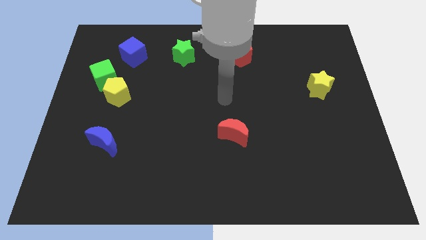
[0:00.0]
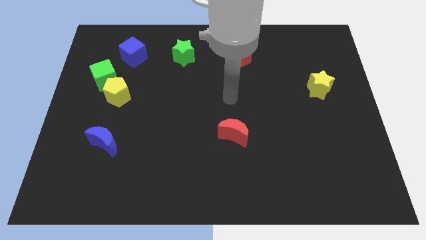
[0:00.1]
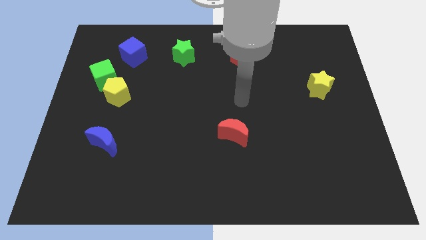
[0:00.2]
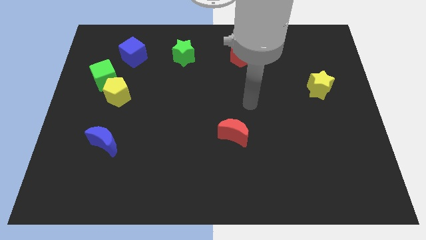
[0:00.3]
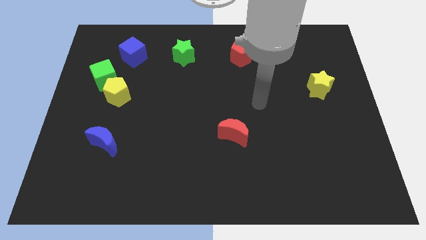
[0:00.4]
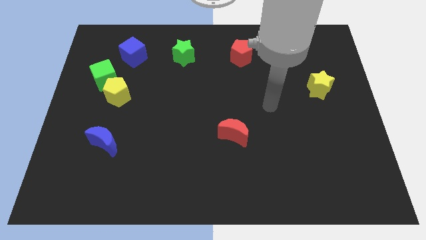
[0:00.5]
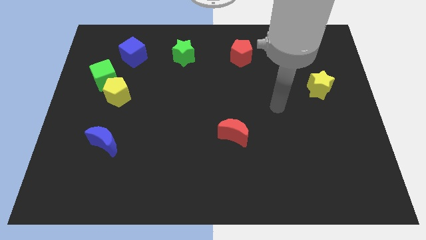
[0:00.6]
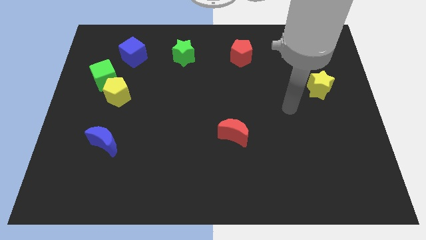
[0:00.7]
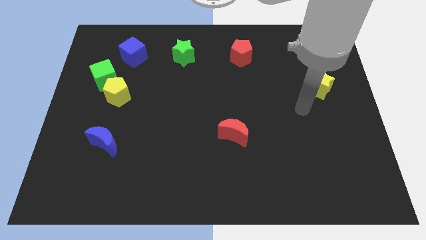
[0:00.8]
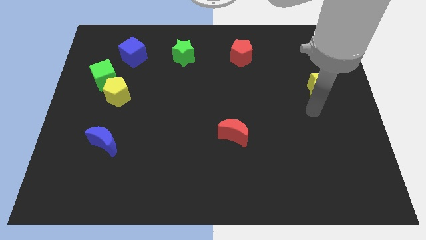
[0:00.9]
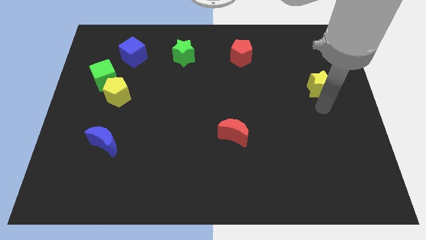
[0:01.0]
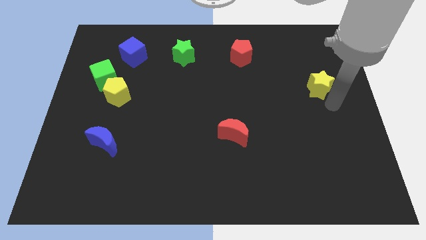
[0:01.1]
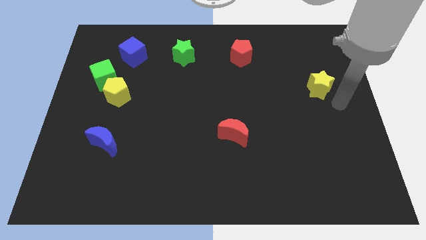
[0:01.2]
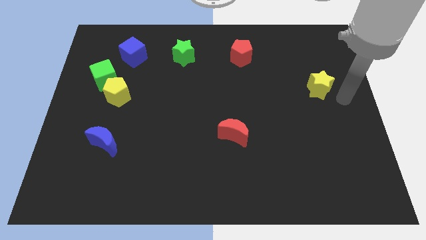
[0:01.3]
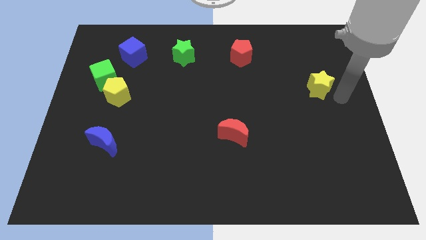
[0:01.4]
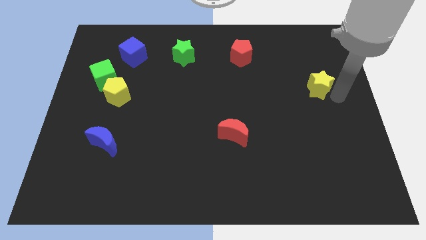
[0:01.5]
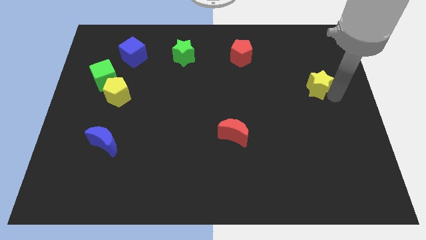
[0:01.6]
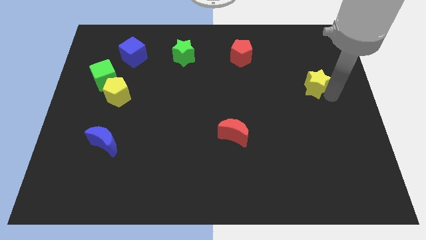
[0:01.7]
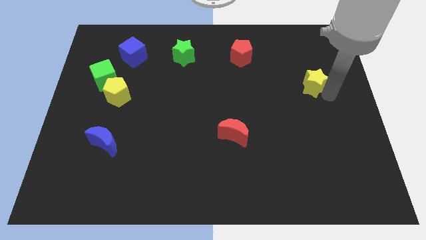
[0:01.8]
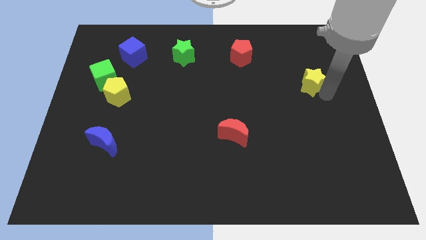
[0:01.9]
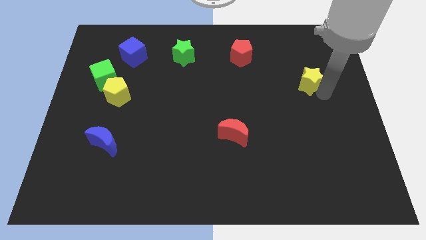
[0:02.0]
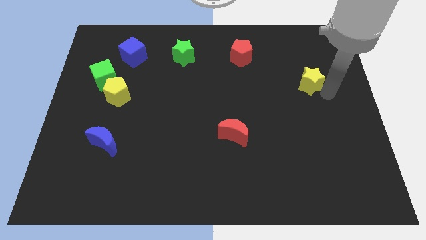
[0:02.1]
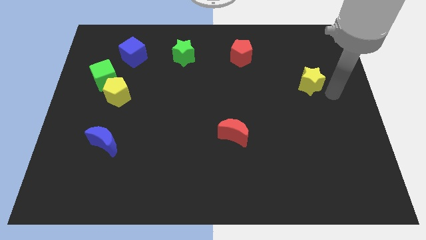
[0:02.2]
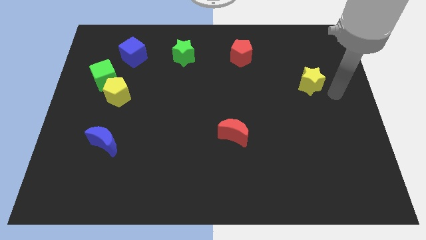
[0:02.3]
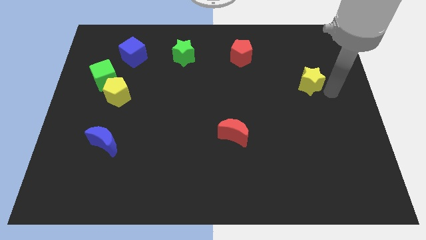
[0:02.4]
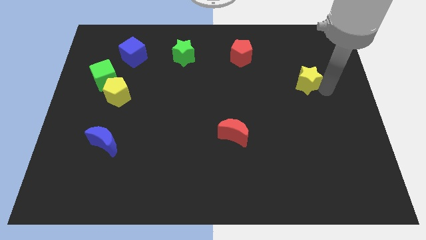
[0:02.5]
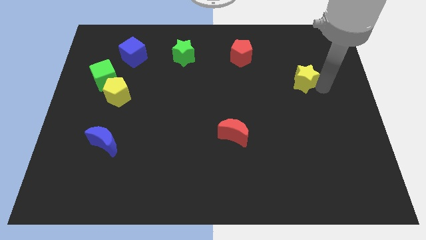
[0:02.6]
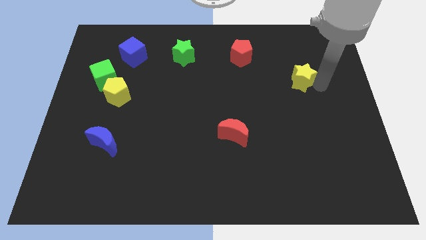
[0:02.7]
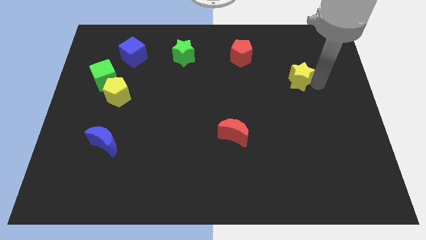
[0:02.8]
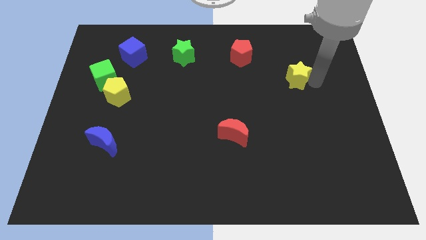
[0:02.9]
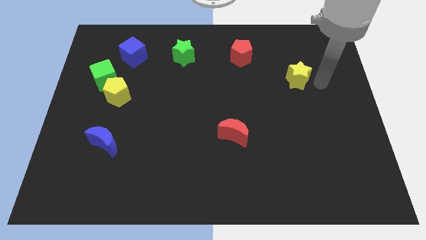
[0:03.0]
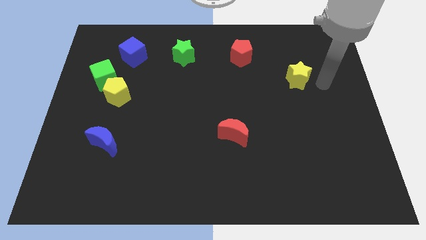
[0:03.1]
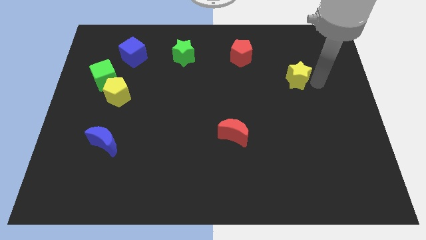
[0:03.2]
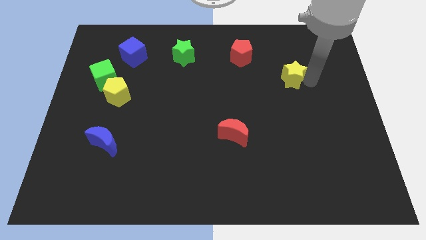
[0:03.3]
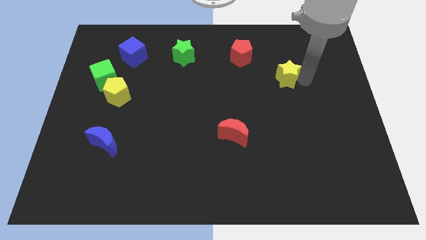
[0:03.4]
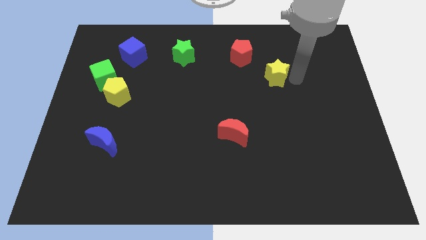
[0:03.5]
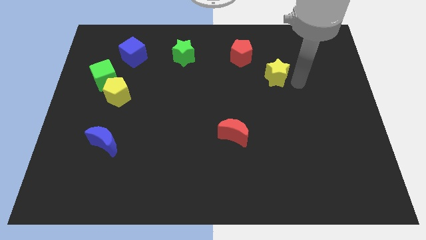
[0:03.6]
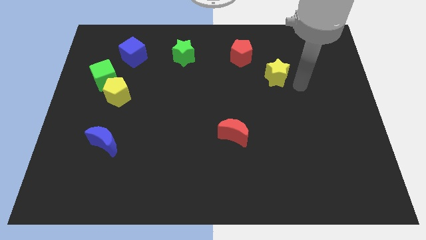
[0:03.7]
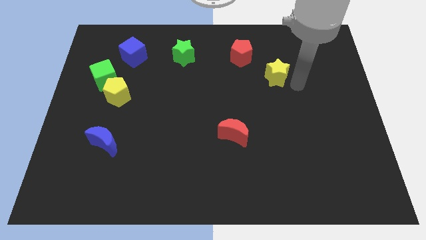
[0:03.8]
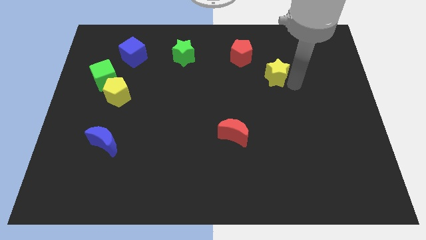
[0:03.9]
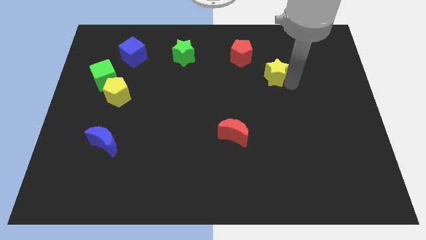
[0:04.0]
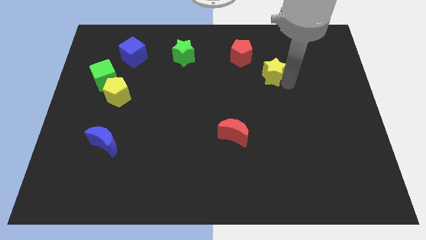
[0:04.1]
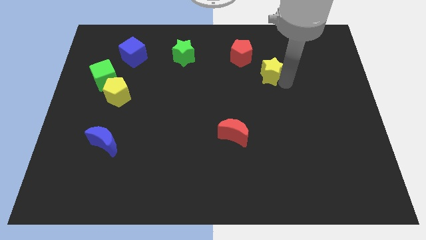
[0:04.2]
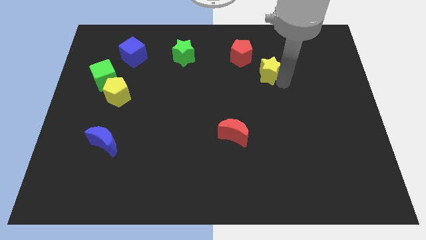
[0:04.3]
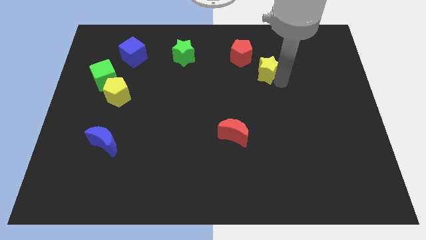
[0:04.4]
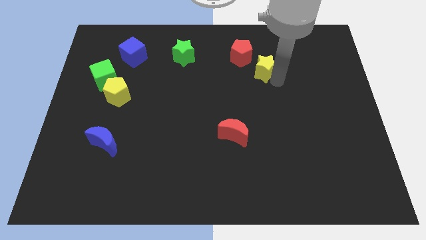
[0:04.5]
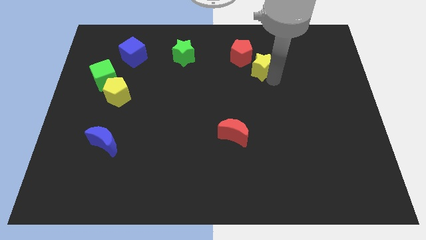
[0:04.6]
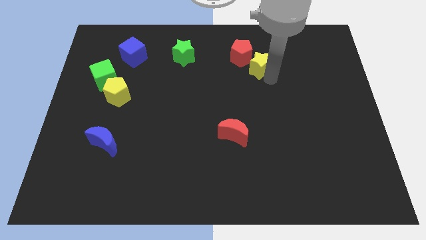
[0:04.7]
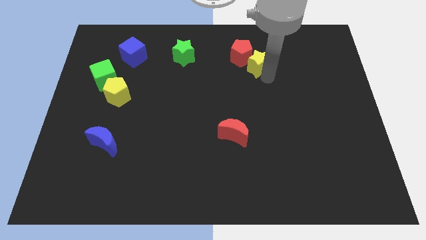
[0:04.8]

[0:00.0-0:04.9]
push the yellow star towards the red pentagon

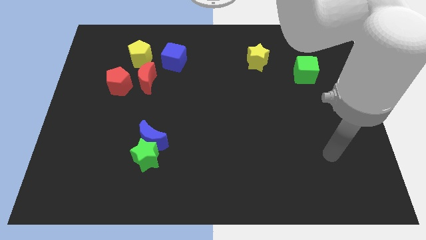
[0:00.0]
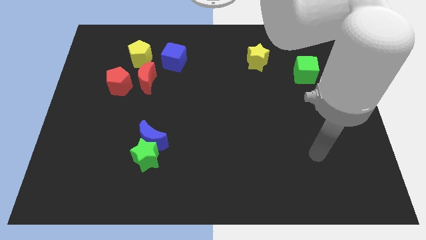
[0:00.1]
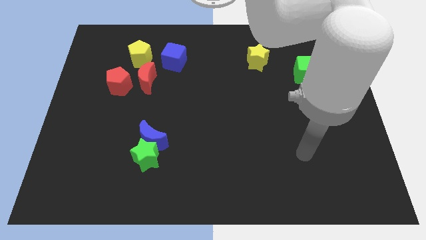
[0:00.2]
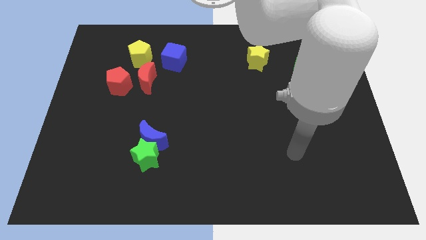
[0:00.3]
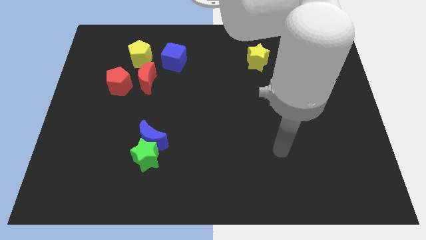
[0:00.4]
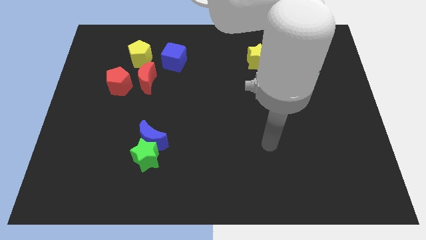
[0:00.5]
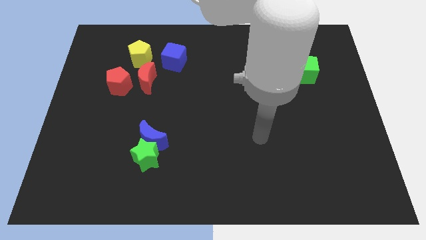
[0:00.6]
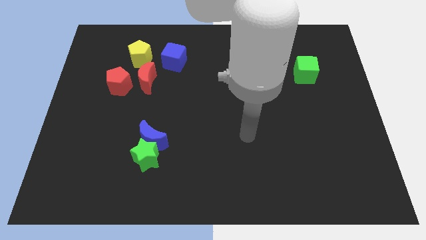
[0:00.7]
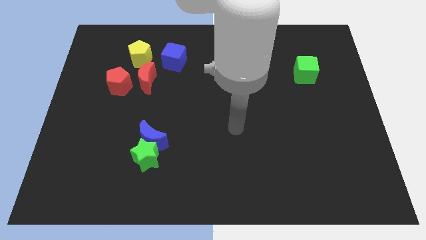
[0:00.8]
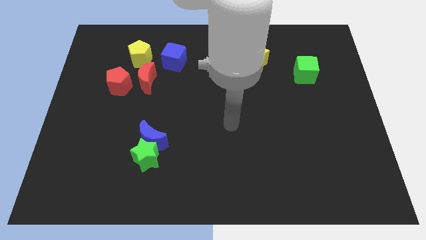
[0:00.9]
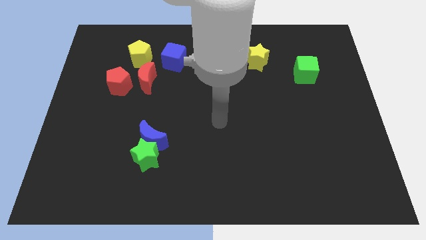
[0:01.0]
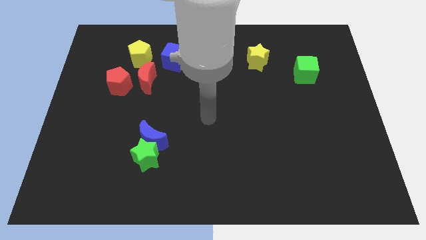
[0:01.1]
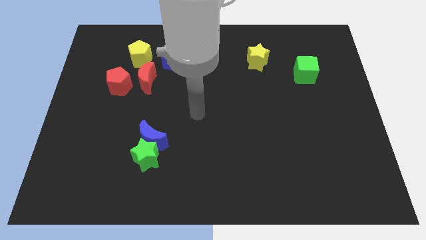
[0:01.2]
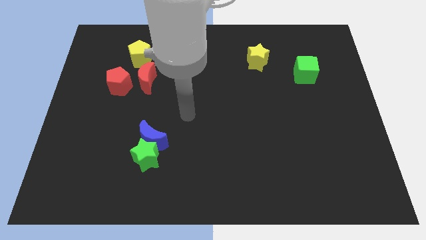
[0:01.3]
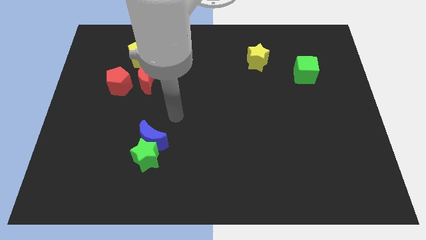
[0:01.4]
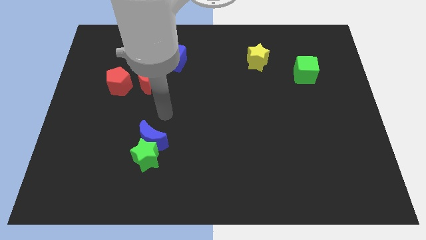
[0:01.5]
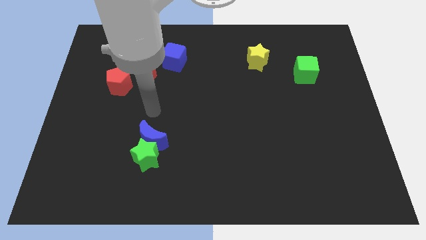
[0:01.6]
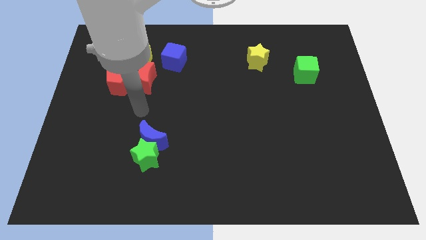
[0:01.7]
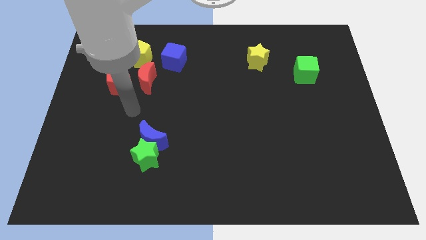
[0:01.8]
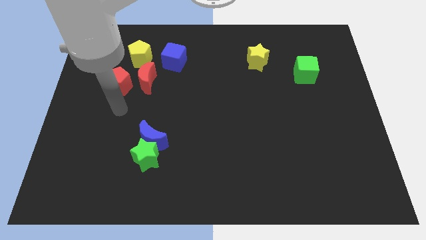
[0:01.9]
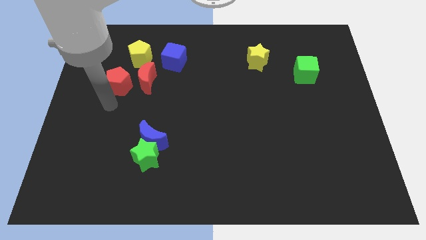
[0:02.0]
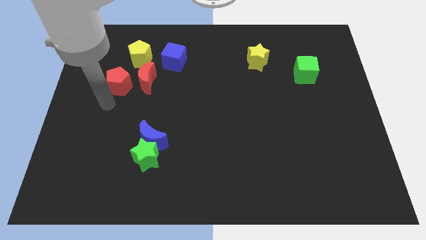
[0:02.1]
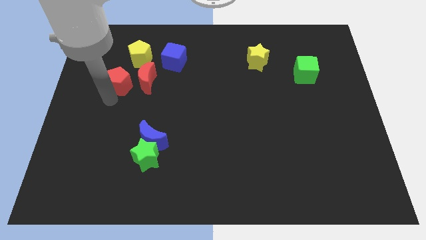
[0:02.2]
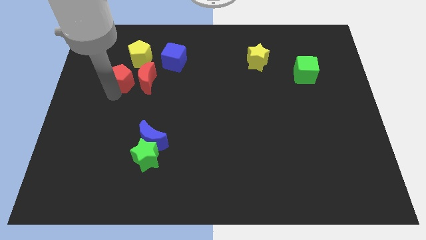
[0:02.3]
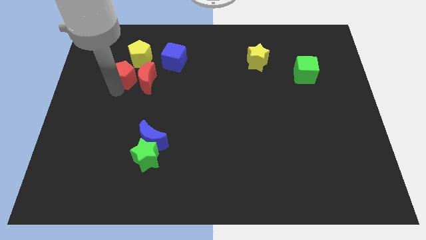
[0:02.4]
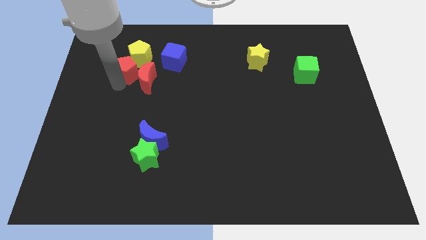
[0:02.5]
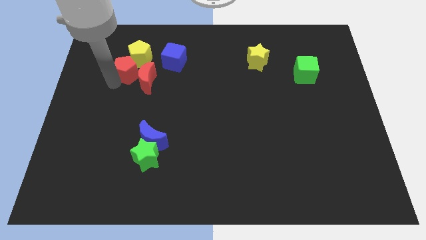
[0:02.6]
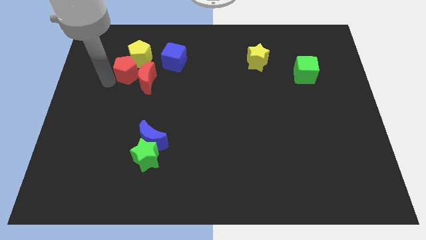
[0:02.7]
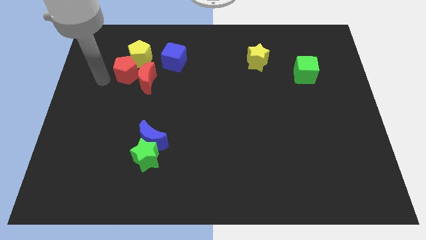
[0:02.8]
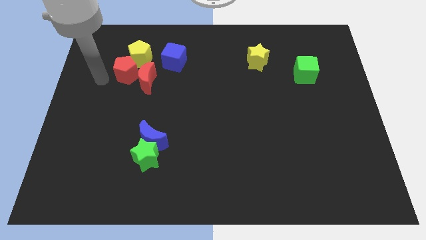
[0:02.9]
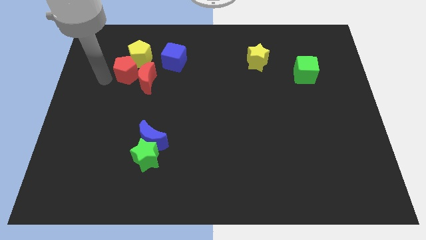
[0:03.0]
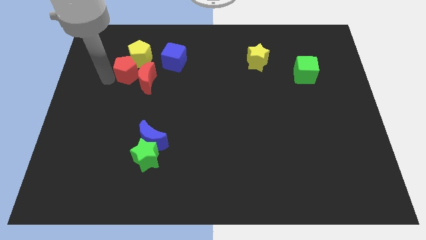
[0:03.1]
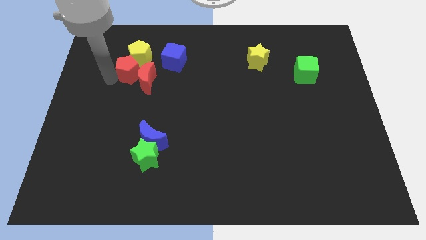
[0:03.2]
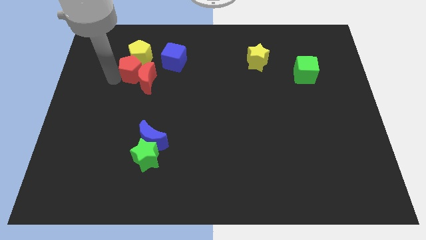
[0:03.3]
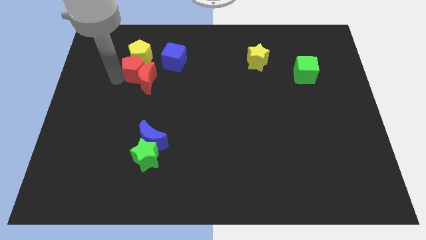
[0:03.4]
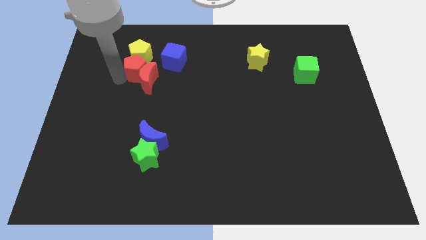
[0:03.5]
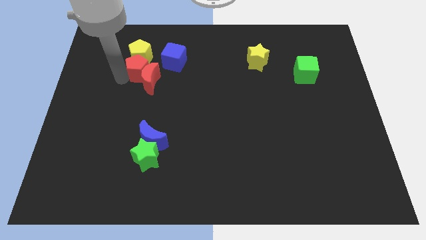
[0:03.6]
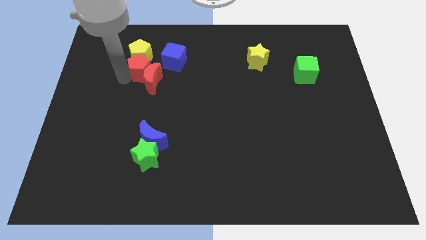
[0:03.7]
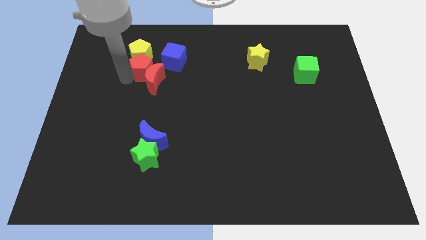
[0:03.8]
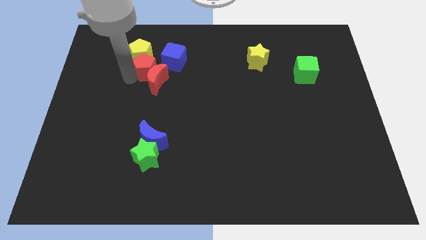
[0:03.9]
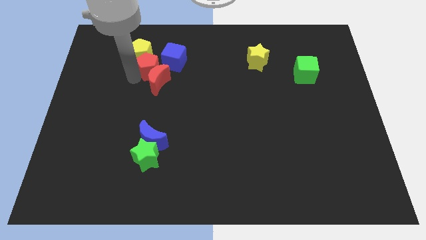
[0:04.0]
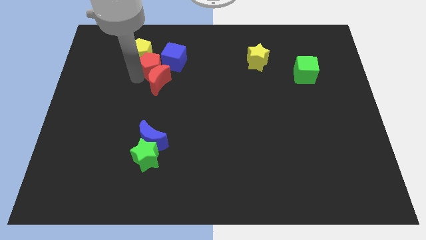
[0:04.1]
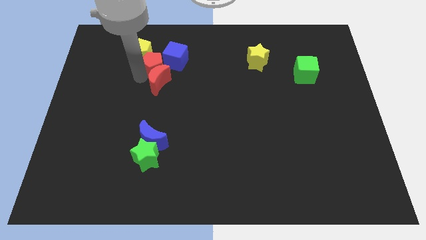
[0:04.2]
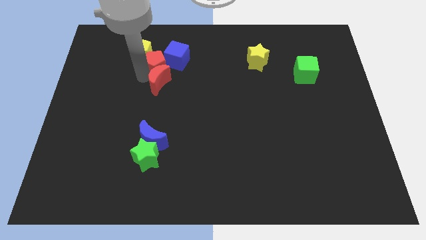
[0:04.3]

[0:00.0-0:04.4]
push the red pentagon next to the blue cube
